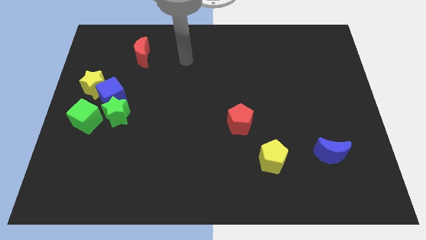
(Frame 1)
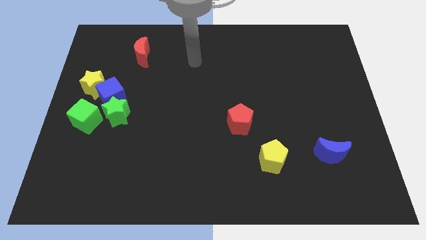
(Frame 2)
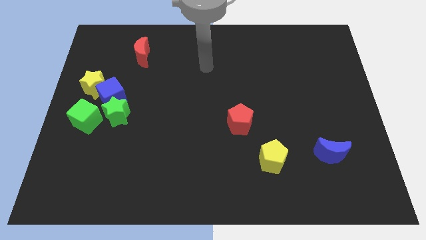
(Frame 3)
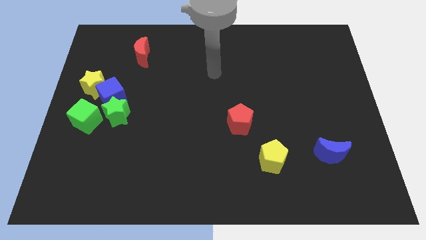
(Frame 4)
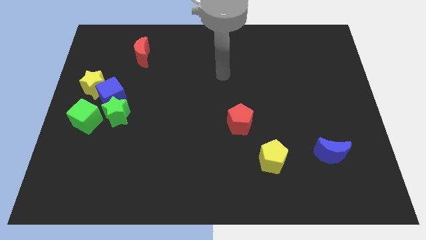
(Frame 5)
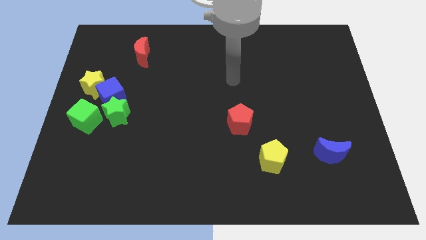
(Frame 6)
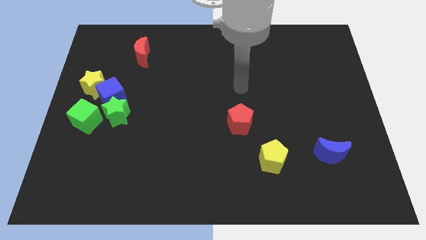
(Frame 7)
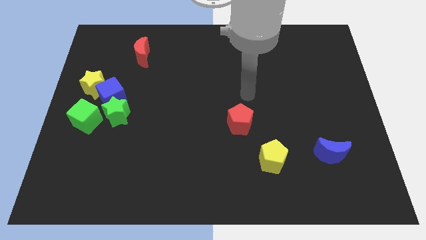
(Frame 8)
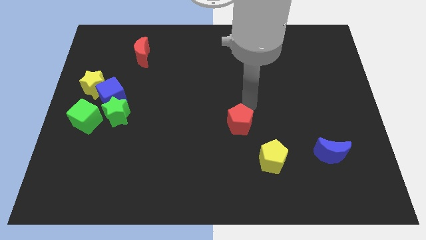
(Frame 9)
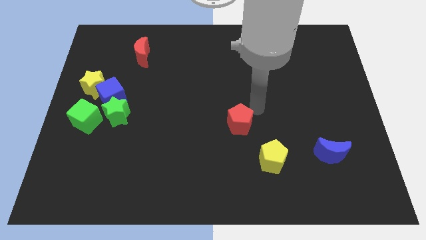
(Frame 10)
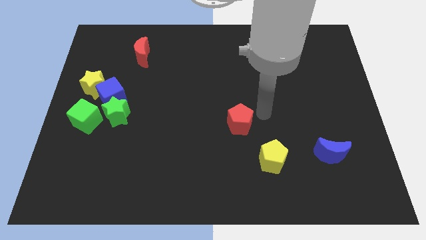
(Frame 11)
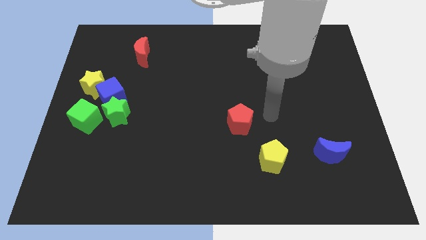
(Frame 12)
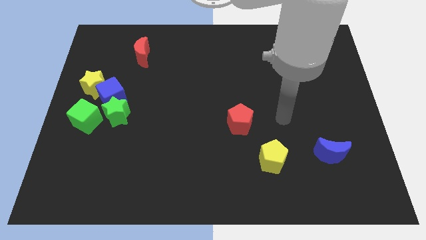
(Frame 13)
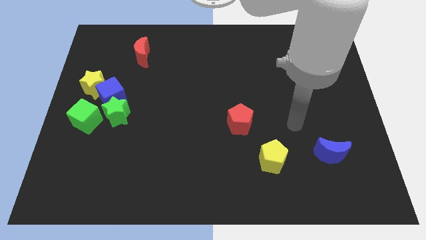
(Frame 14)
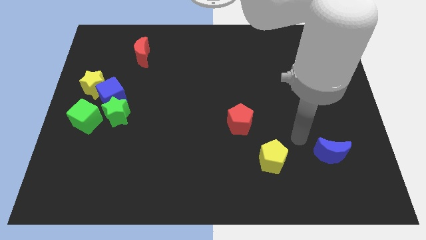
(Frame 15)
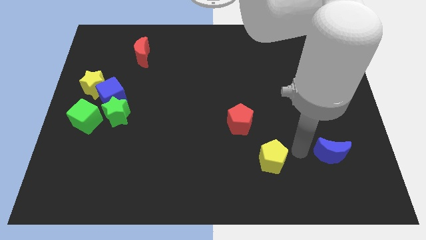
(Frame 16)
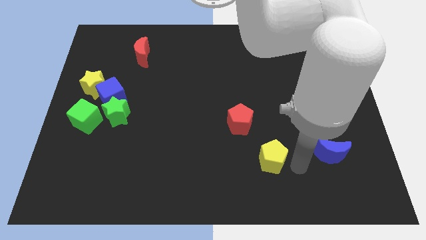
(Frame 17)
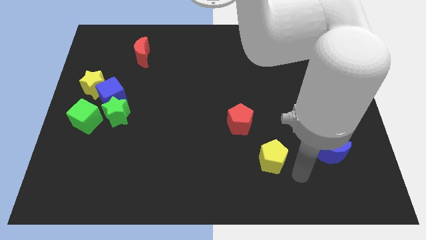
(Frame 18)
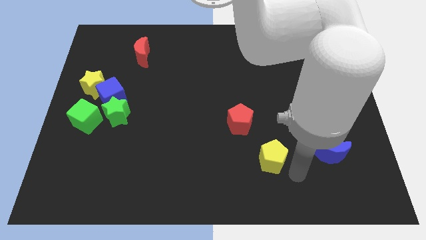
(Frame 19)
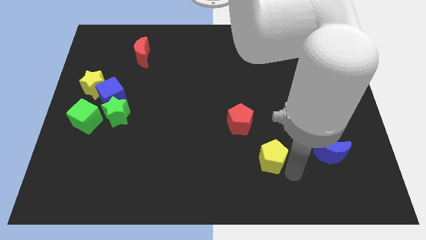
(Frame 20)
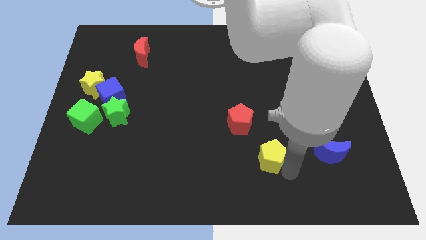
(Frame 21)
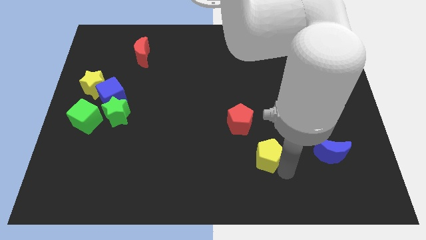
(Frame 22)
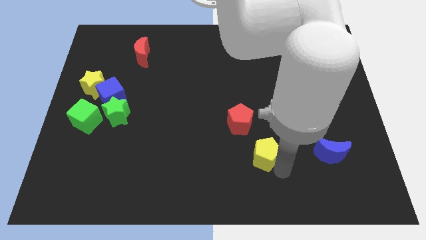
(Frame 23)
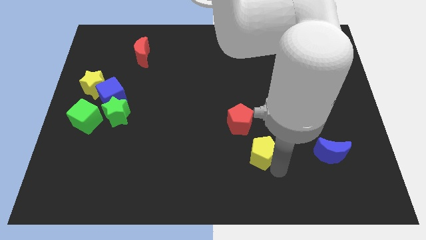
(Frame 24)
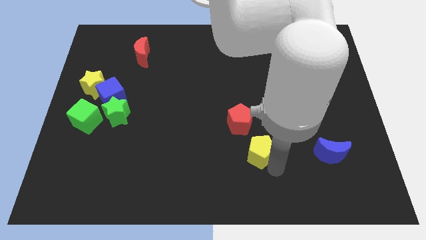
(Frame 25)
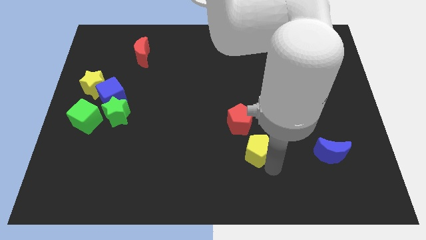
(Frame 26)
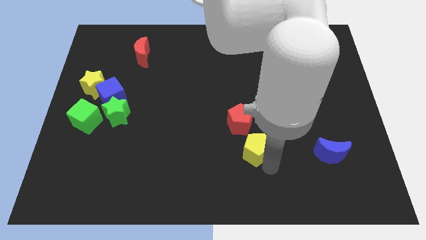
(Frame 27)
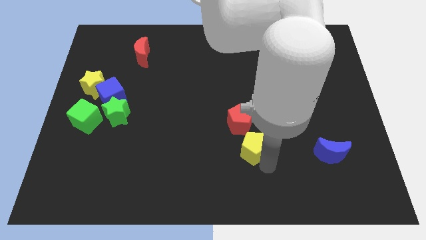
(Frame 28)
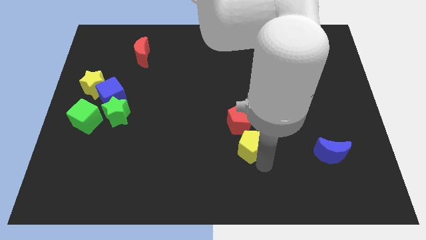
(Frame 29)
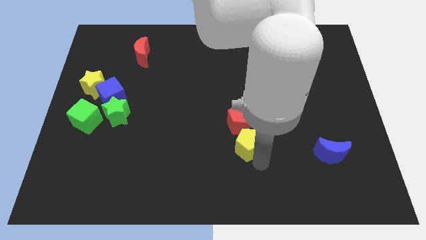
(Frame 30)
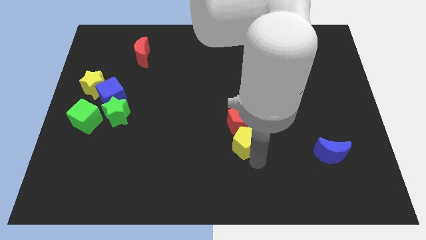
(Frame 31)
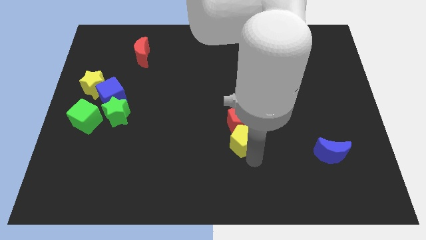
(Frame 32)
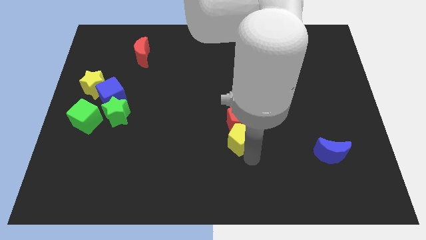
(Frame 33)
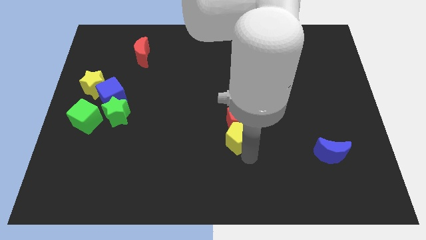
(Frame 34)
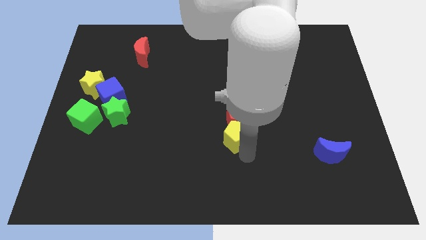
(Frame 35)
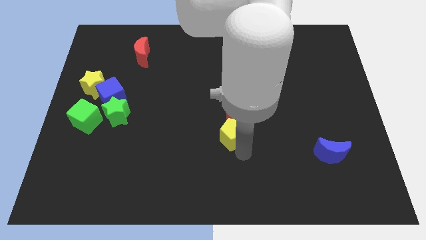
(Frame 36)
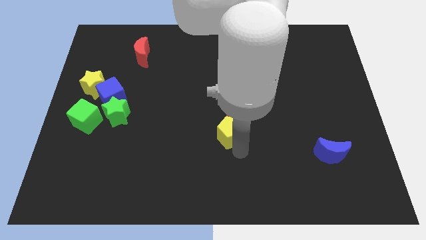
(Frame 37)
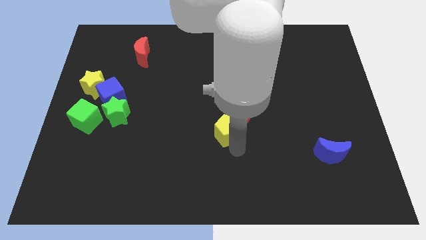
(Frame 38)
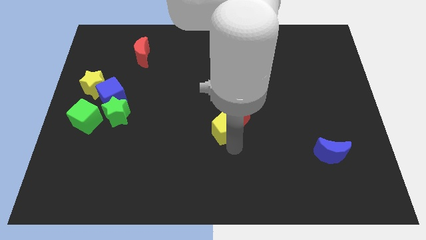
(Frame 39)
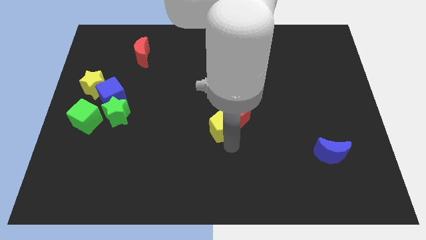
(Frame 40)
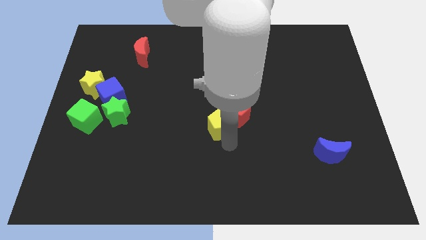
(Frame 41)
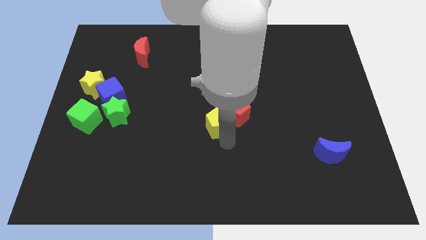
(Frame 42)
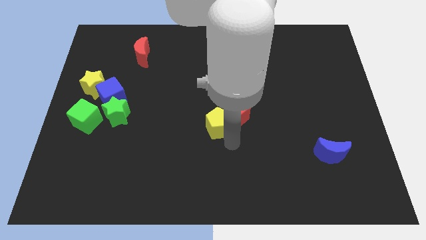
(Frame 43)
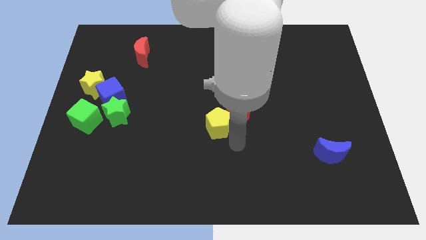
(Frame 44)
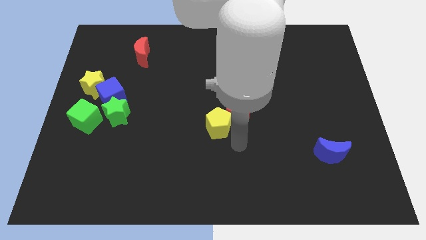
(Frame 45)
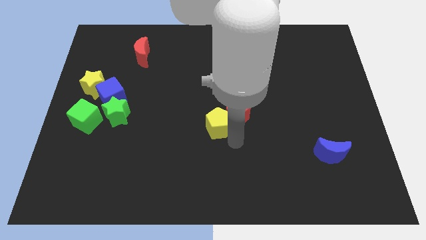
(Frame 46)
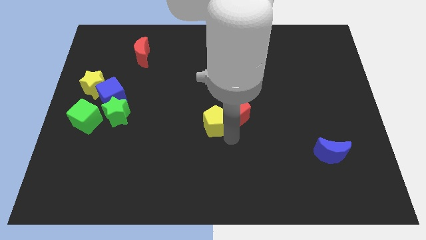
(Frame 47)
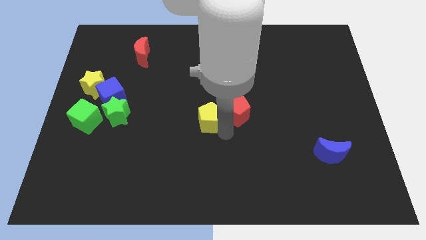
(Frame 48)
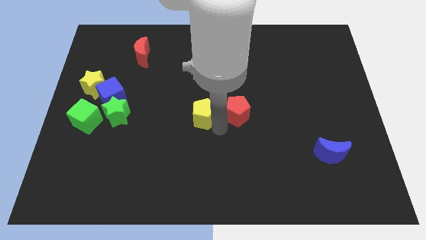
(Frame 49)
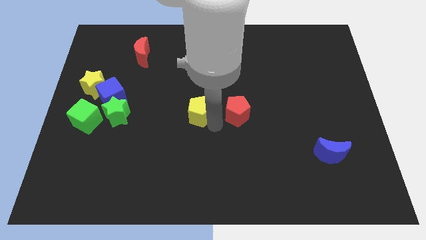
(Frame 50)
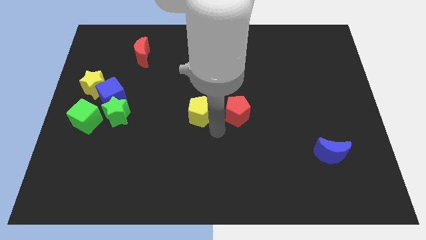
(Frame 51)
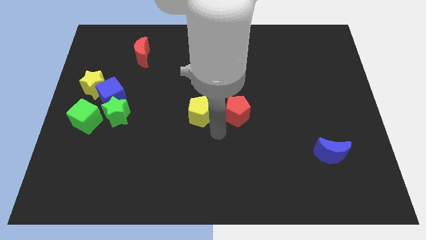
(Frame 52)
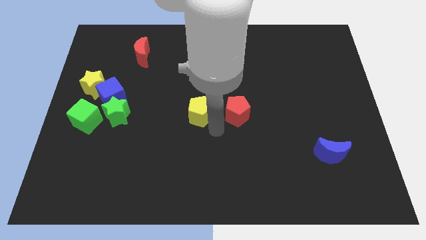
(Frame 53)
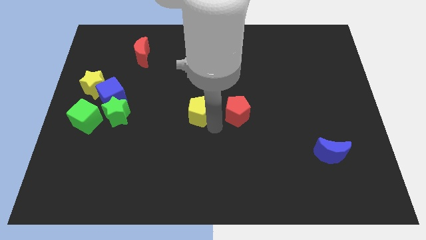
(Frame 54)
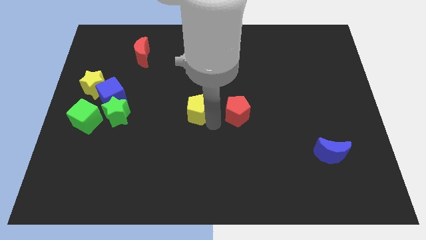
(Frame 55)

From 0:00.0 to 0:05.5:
move the yellow pentagon upwards and to the left

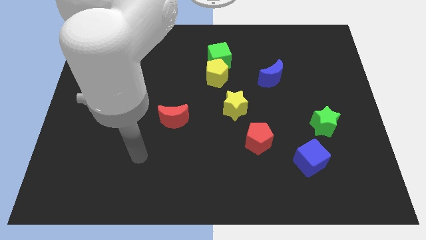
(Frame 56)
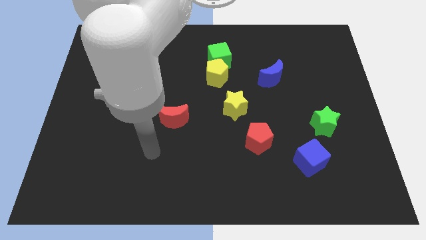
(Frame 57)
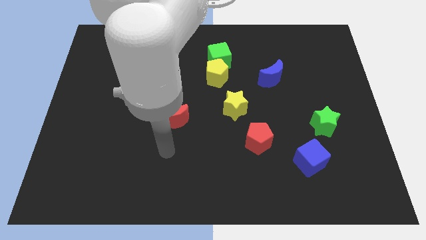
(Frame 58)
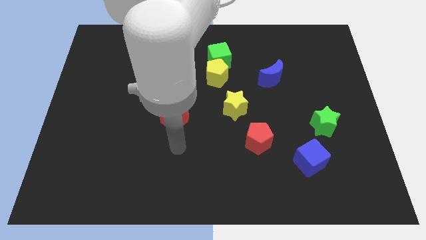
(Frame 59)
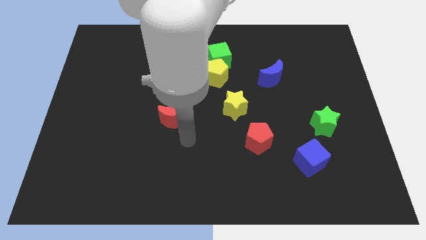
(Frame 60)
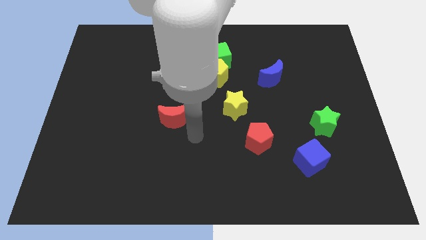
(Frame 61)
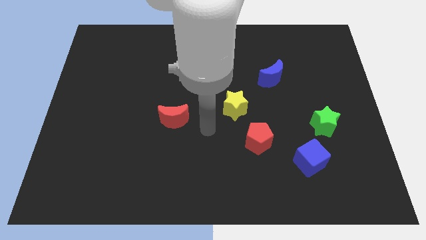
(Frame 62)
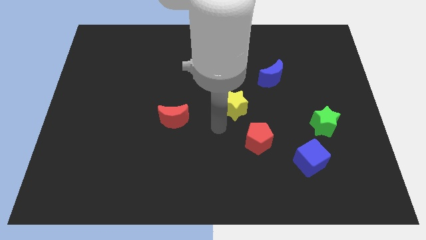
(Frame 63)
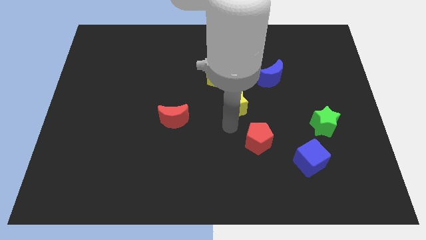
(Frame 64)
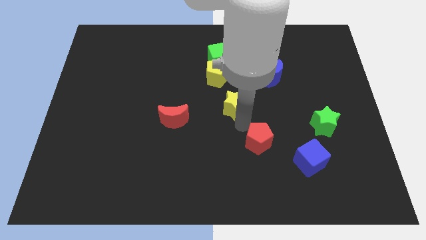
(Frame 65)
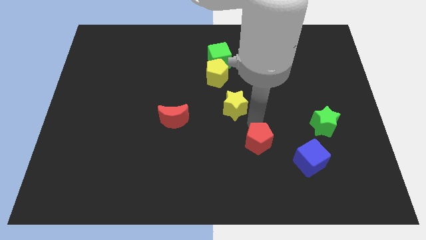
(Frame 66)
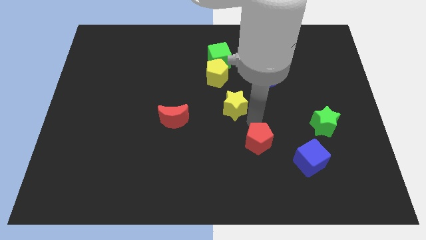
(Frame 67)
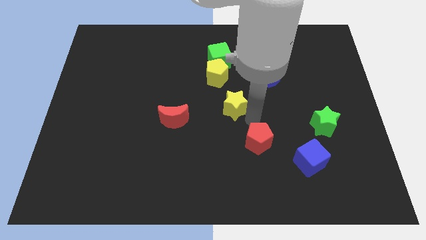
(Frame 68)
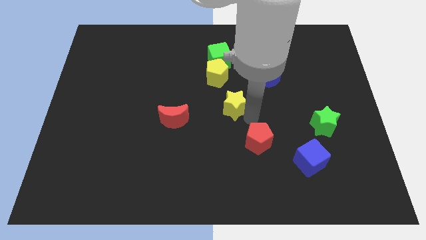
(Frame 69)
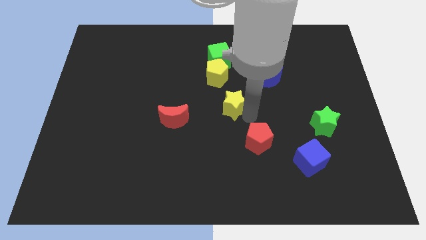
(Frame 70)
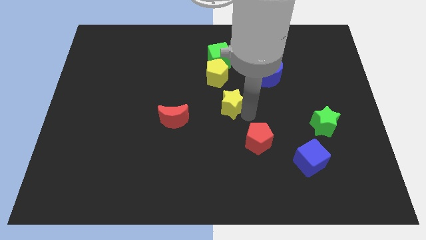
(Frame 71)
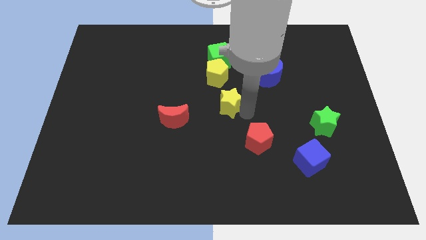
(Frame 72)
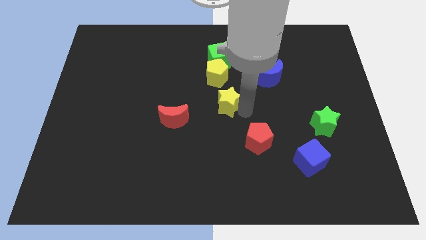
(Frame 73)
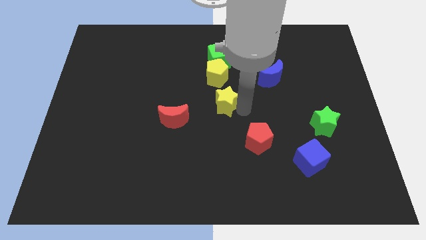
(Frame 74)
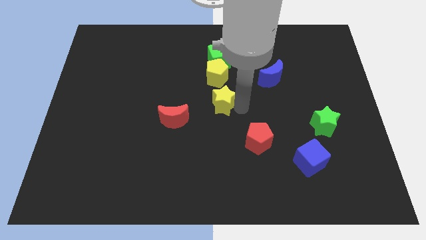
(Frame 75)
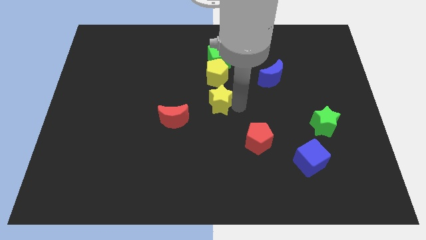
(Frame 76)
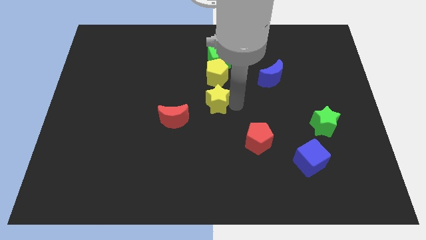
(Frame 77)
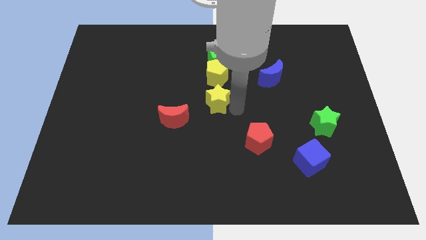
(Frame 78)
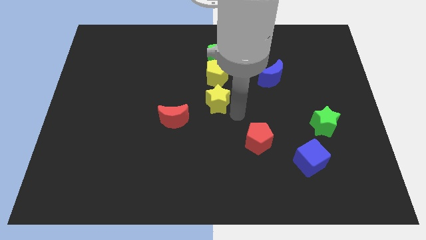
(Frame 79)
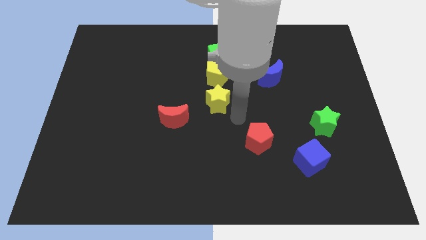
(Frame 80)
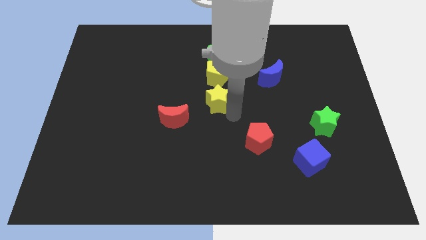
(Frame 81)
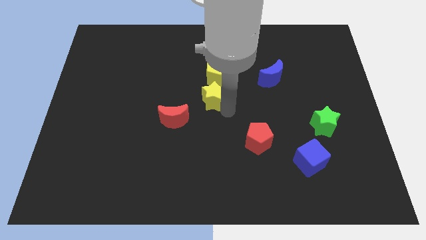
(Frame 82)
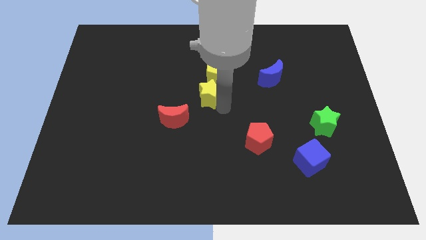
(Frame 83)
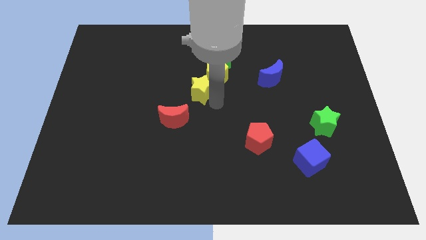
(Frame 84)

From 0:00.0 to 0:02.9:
move the yellow star a bit up and then to the left
